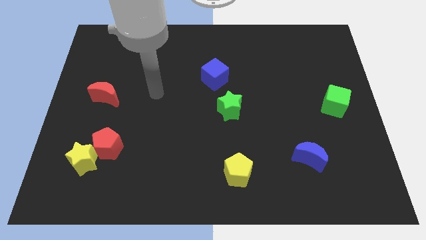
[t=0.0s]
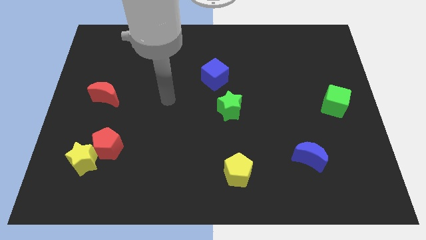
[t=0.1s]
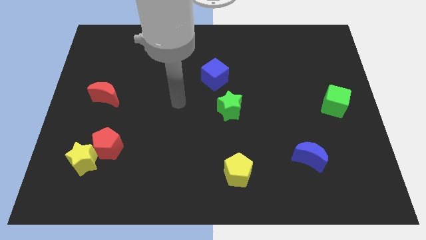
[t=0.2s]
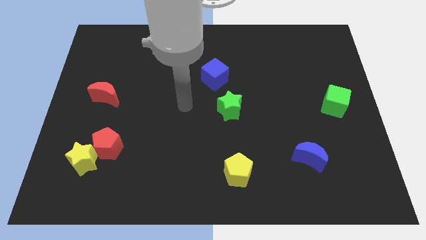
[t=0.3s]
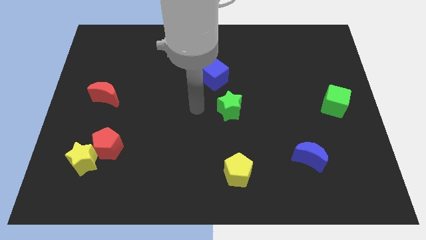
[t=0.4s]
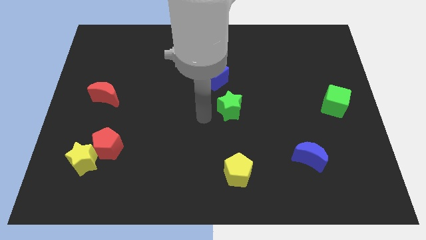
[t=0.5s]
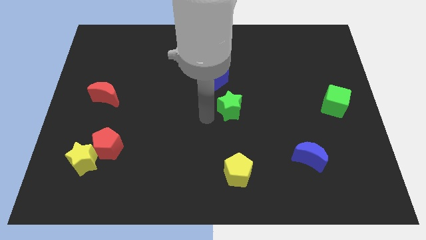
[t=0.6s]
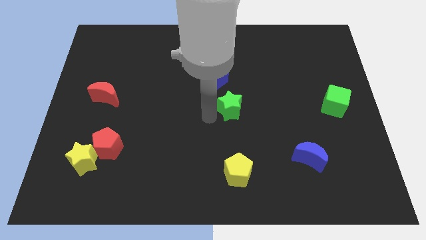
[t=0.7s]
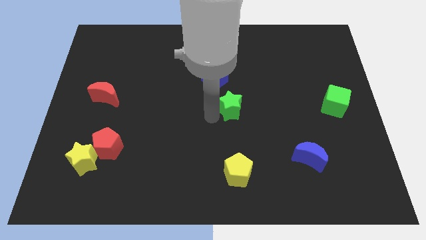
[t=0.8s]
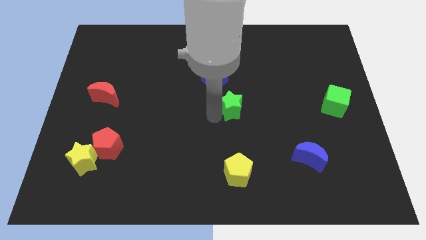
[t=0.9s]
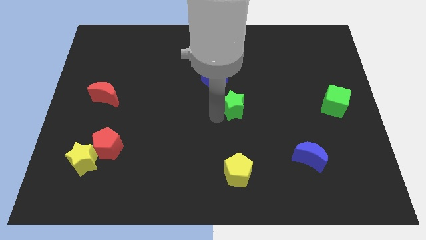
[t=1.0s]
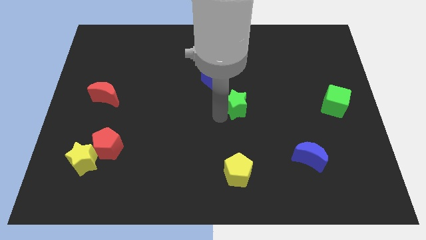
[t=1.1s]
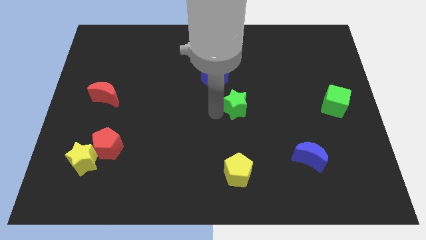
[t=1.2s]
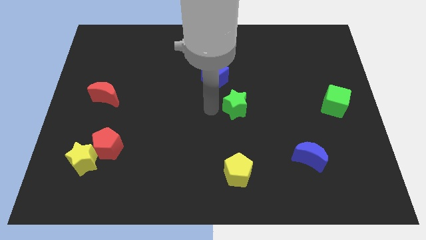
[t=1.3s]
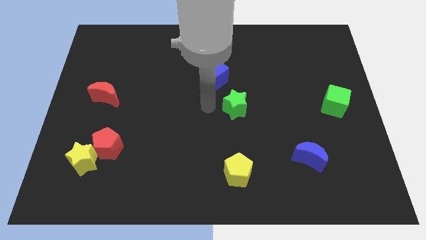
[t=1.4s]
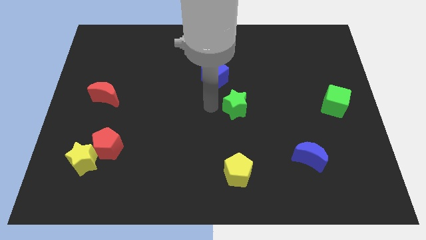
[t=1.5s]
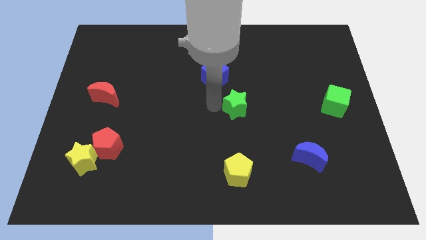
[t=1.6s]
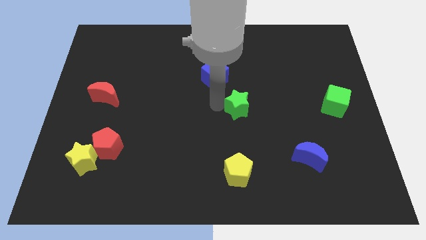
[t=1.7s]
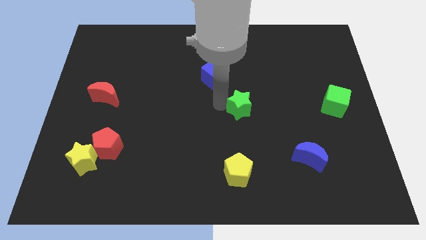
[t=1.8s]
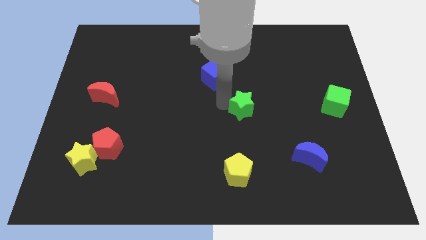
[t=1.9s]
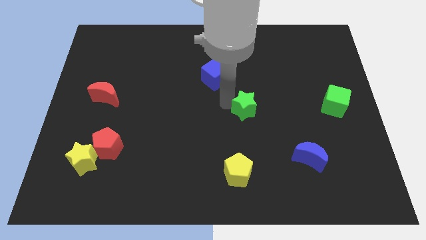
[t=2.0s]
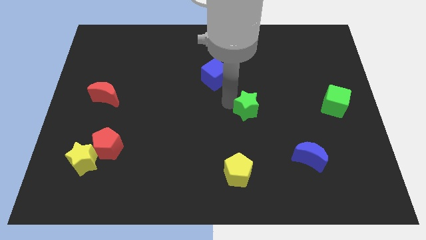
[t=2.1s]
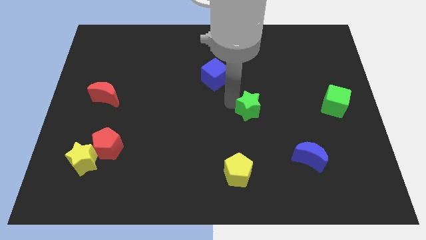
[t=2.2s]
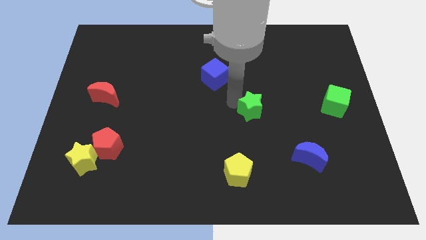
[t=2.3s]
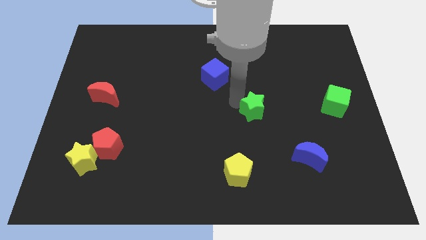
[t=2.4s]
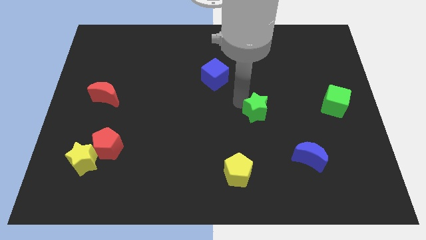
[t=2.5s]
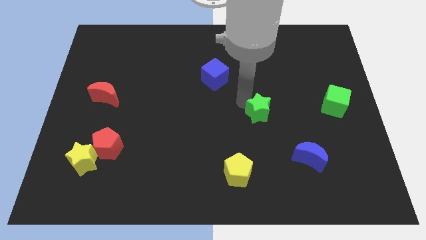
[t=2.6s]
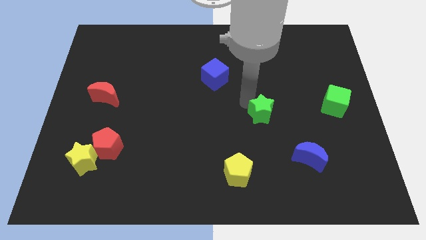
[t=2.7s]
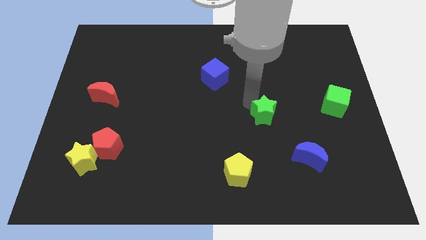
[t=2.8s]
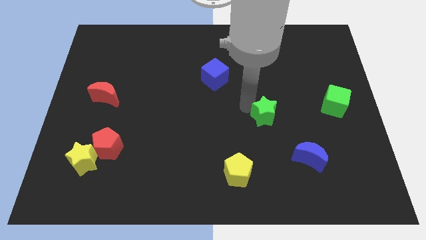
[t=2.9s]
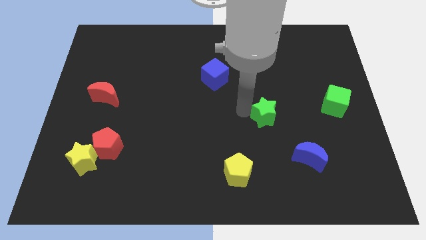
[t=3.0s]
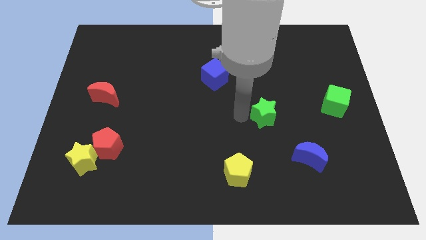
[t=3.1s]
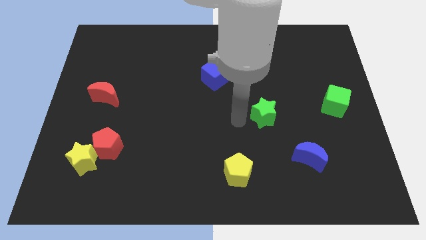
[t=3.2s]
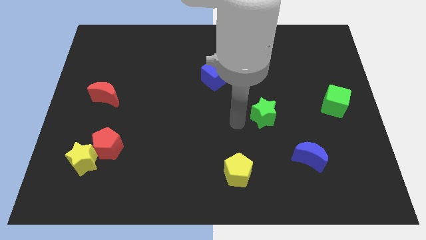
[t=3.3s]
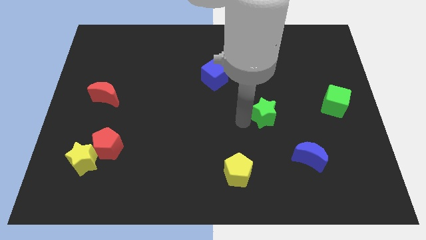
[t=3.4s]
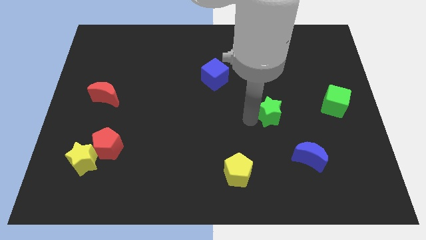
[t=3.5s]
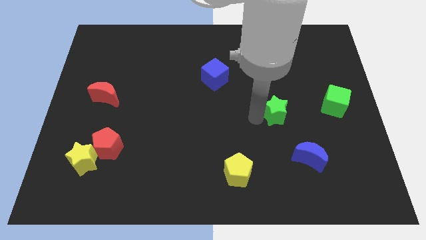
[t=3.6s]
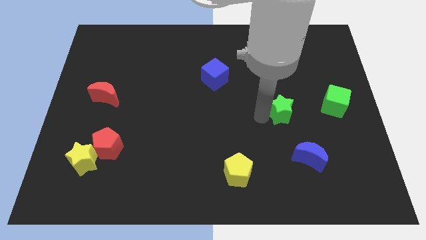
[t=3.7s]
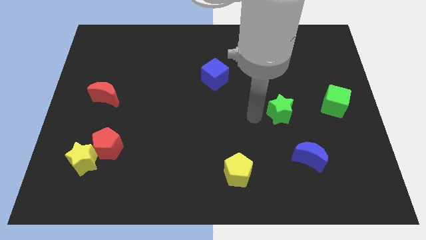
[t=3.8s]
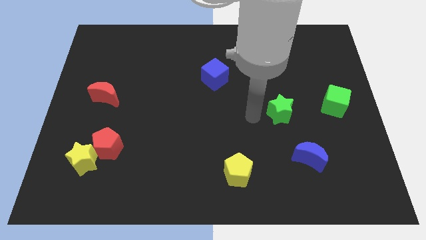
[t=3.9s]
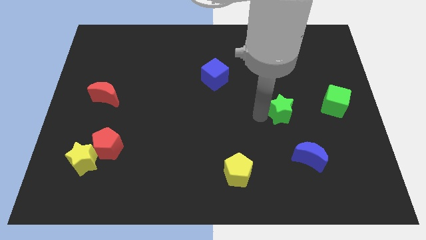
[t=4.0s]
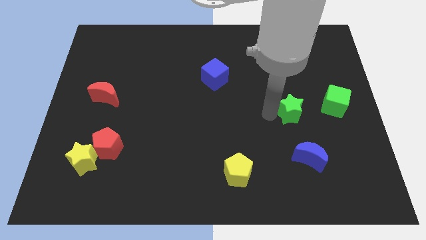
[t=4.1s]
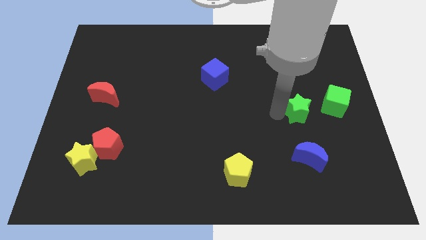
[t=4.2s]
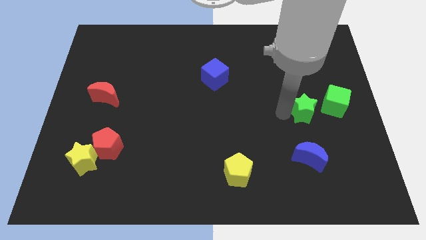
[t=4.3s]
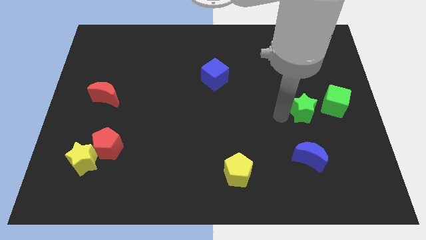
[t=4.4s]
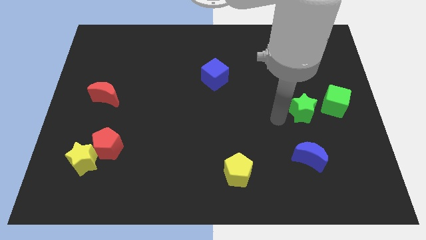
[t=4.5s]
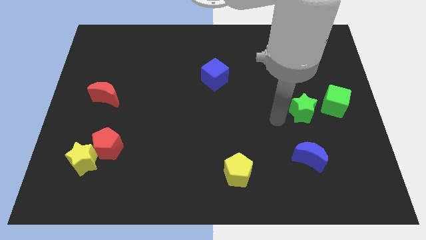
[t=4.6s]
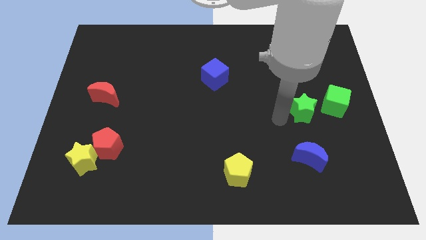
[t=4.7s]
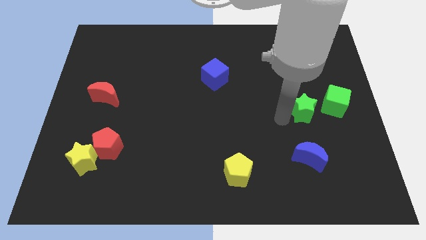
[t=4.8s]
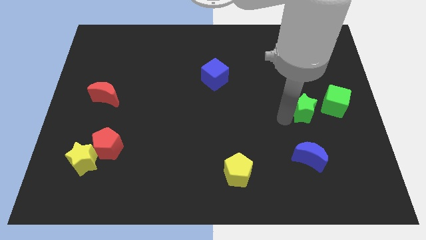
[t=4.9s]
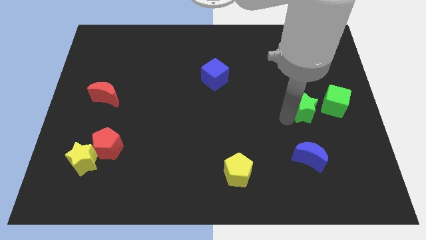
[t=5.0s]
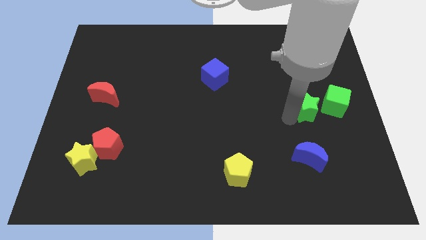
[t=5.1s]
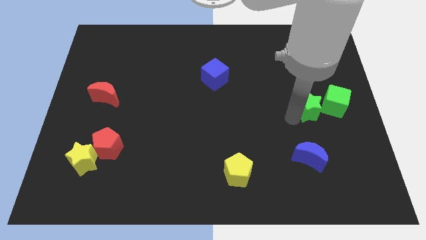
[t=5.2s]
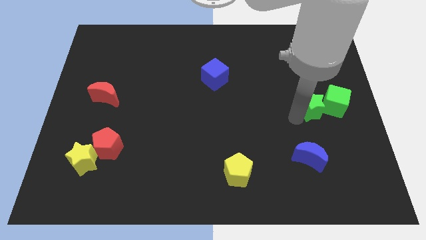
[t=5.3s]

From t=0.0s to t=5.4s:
put the green star towards the green cube

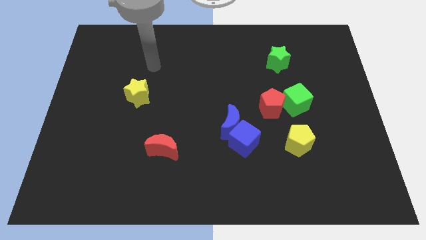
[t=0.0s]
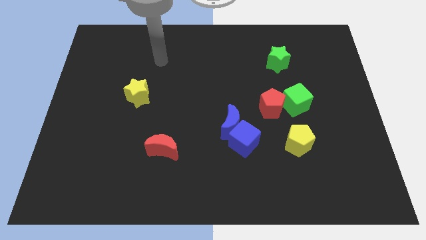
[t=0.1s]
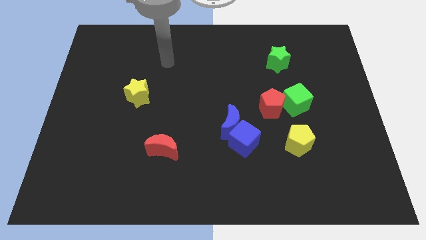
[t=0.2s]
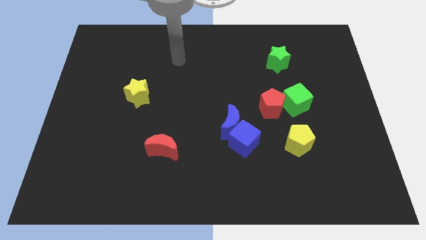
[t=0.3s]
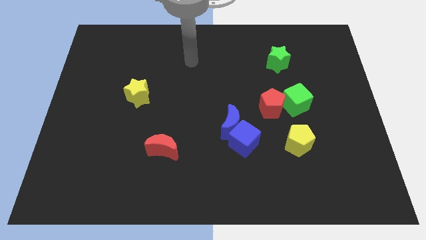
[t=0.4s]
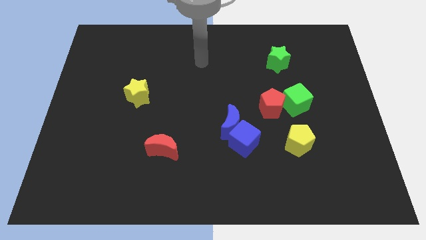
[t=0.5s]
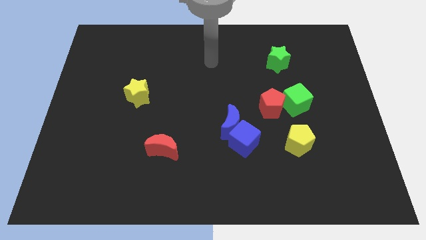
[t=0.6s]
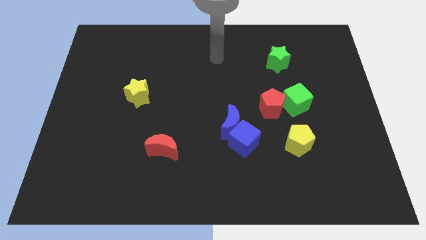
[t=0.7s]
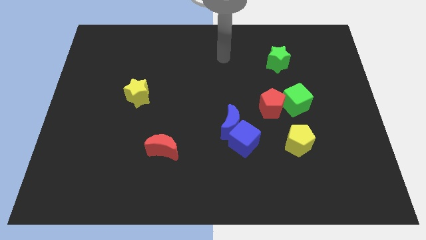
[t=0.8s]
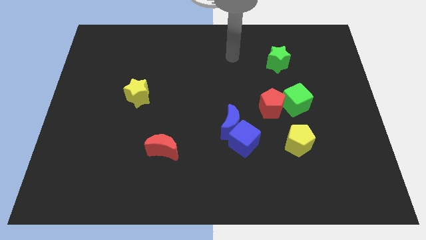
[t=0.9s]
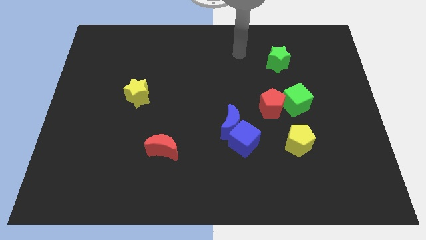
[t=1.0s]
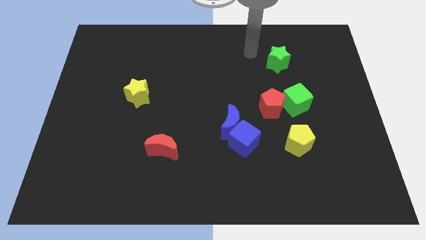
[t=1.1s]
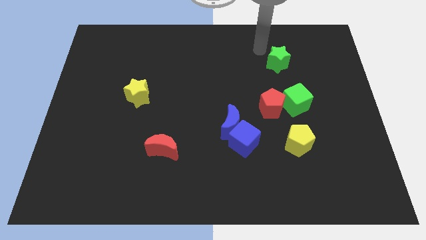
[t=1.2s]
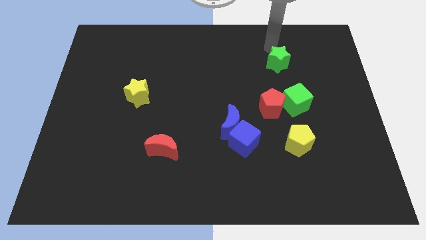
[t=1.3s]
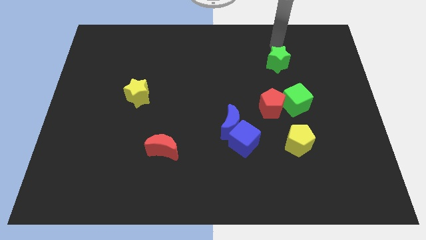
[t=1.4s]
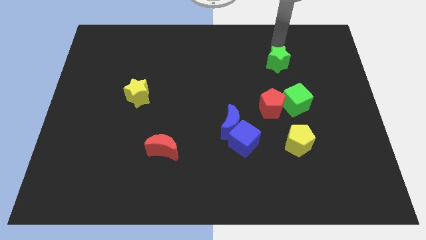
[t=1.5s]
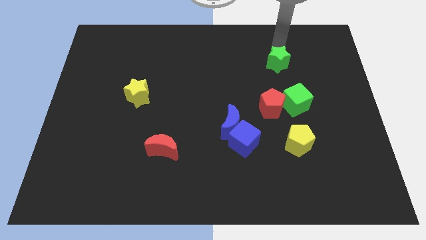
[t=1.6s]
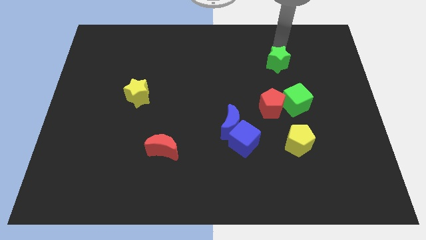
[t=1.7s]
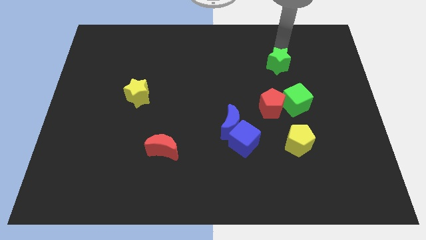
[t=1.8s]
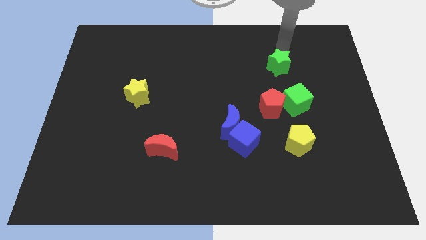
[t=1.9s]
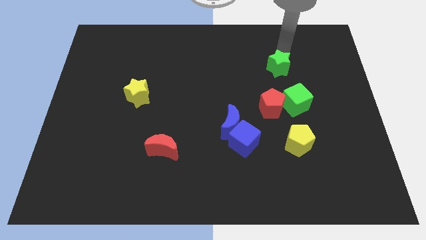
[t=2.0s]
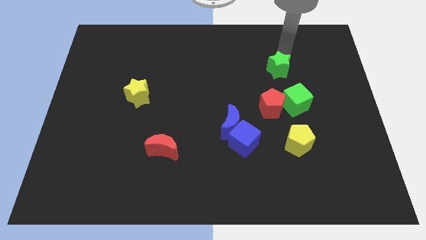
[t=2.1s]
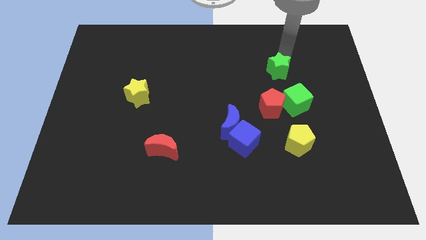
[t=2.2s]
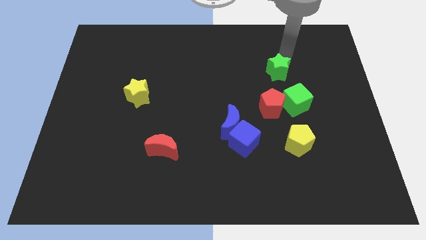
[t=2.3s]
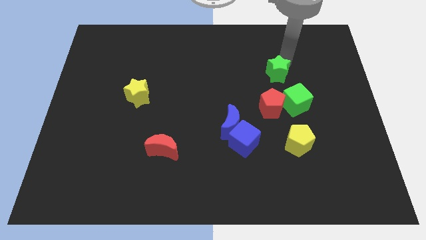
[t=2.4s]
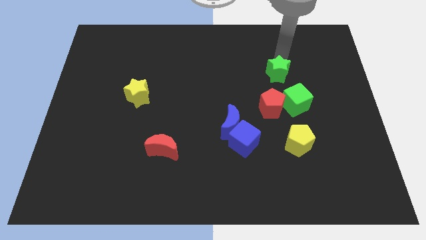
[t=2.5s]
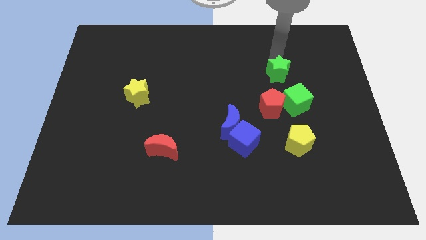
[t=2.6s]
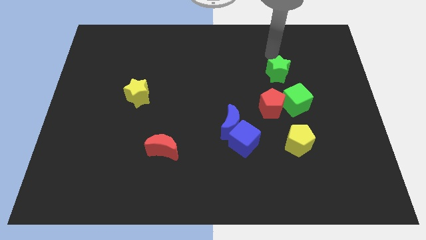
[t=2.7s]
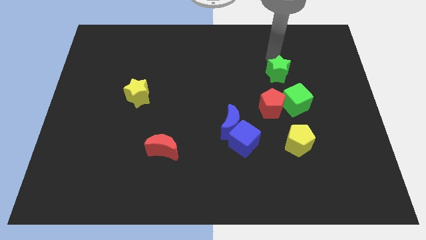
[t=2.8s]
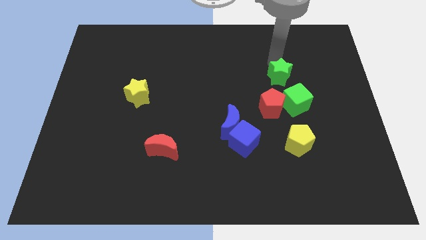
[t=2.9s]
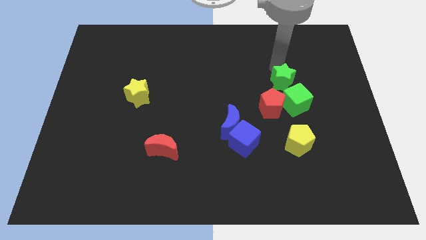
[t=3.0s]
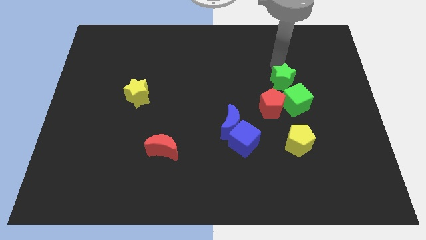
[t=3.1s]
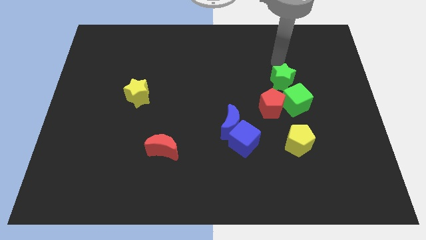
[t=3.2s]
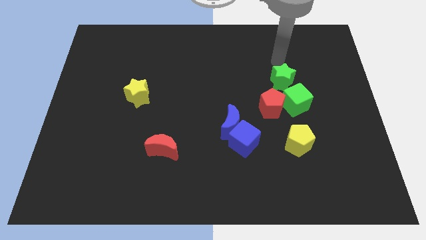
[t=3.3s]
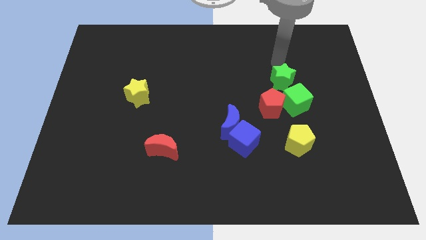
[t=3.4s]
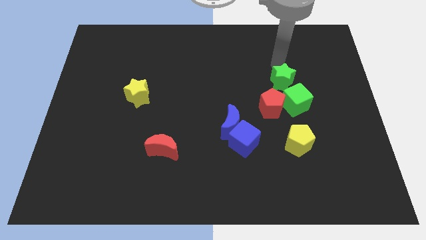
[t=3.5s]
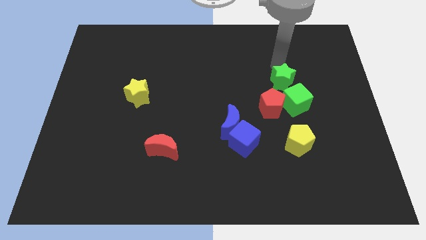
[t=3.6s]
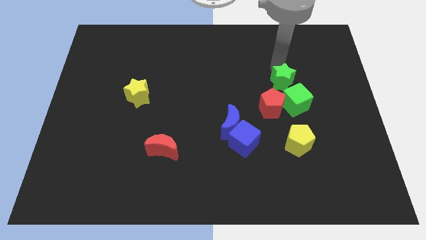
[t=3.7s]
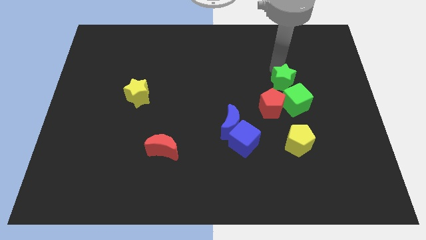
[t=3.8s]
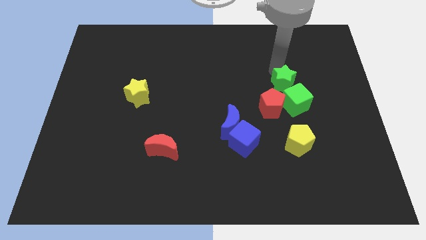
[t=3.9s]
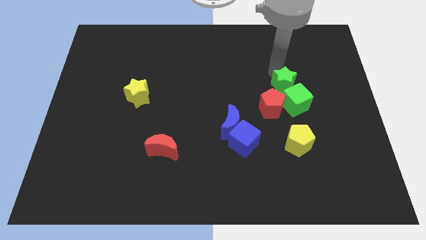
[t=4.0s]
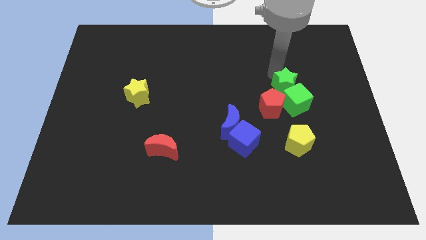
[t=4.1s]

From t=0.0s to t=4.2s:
slide the green star next to the green cube
